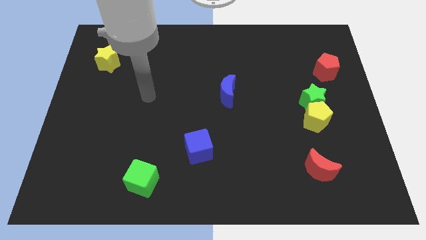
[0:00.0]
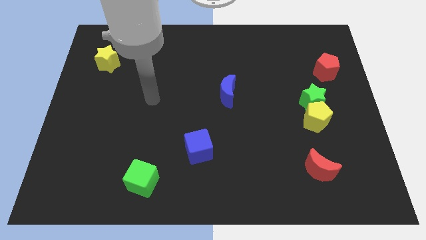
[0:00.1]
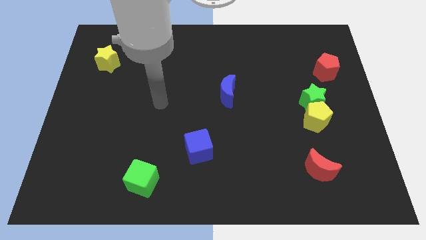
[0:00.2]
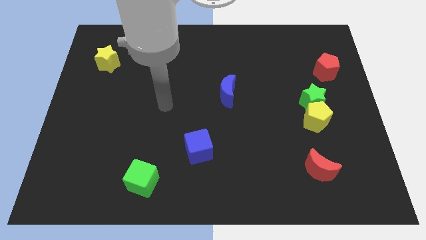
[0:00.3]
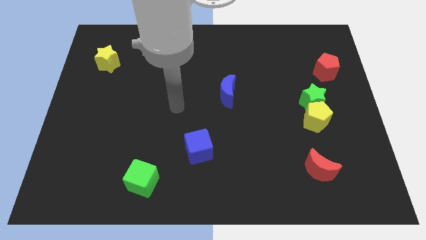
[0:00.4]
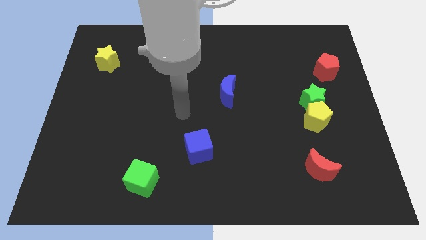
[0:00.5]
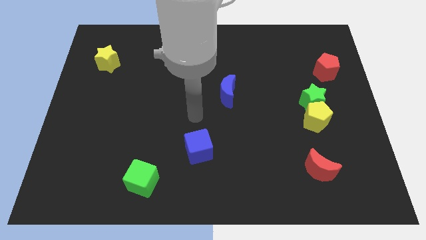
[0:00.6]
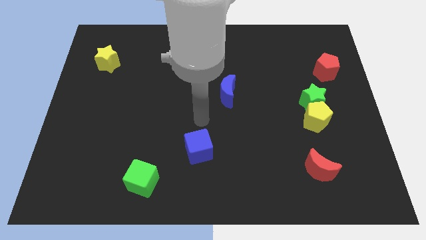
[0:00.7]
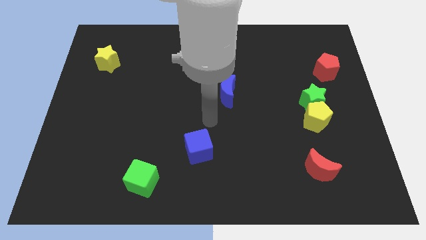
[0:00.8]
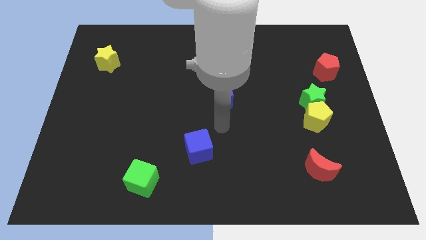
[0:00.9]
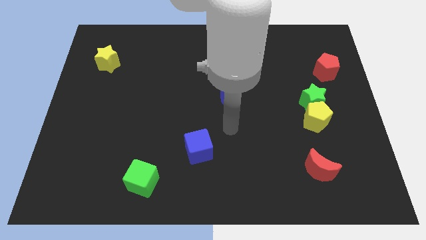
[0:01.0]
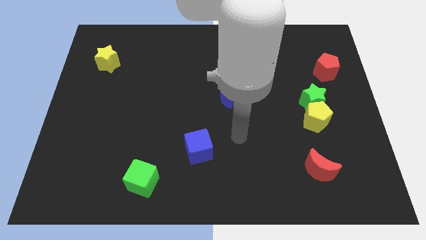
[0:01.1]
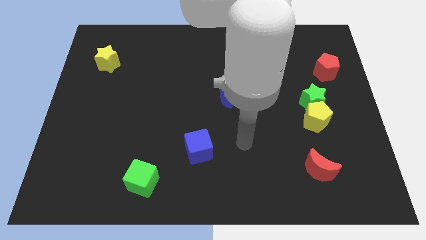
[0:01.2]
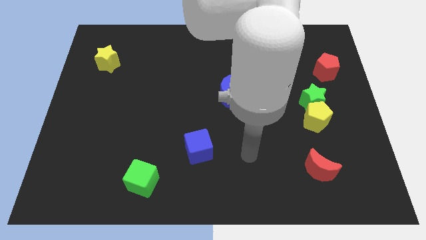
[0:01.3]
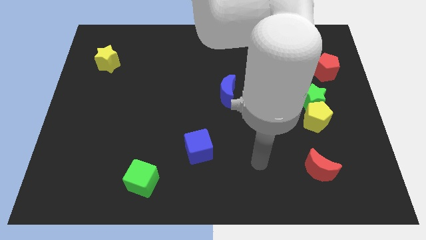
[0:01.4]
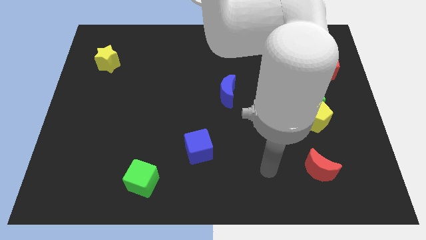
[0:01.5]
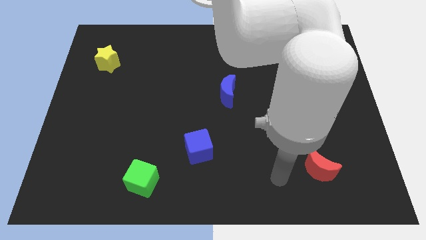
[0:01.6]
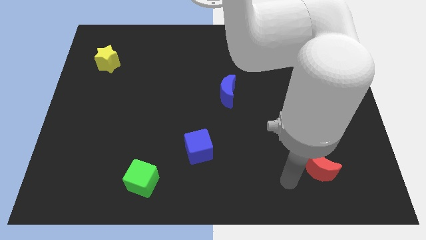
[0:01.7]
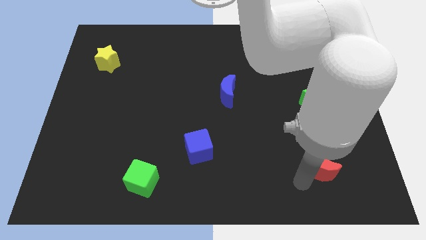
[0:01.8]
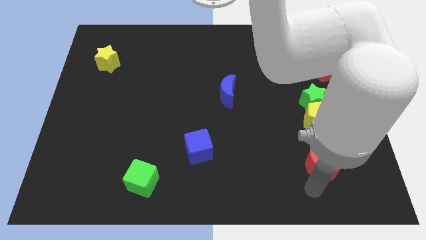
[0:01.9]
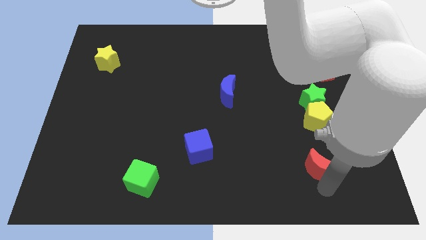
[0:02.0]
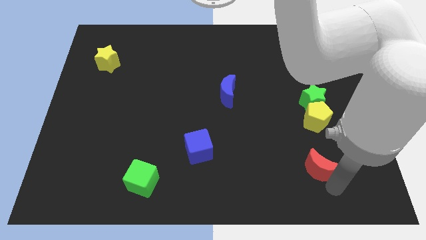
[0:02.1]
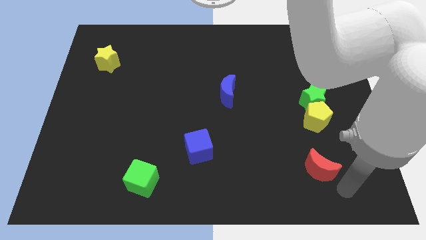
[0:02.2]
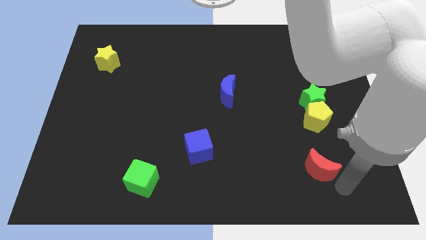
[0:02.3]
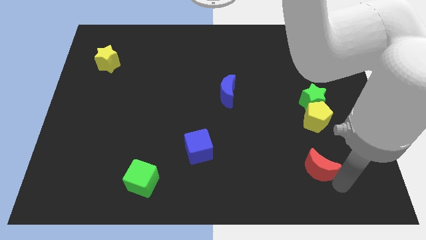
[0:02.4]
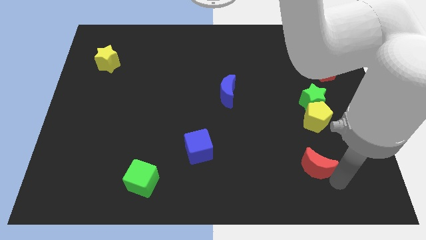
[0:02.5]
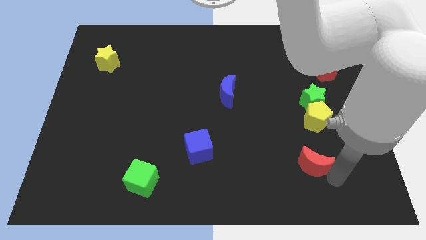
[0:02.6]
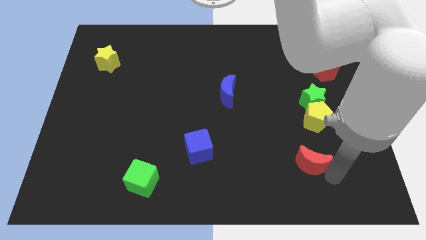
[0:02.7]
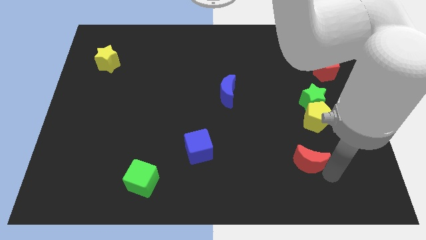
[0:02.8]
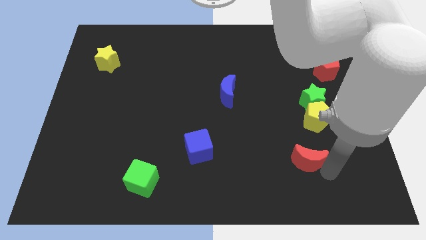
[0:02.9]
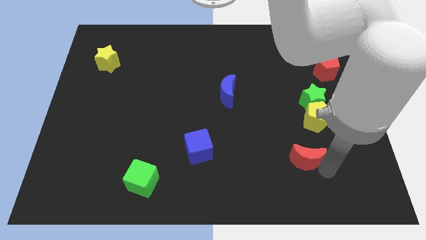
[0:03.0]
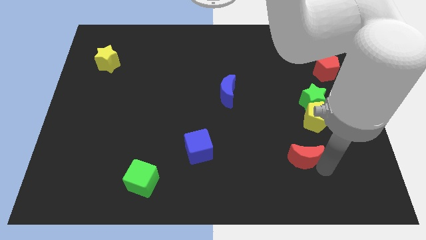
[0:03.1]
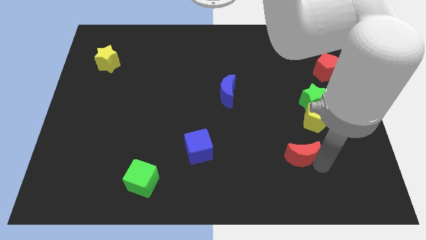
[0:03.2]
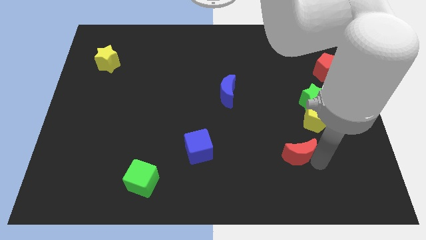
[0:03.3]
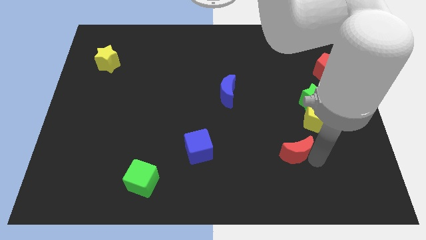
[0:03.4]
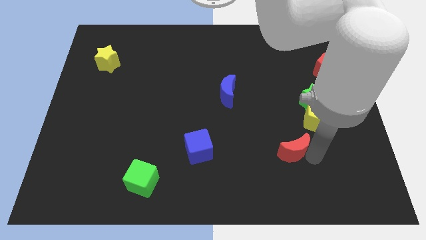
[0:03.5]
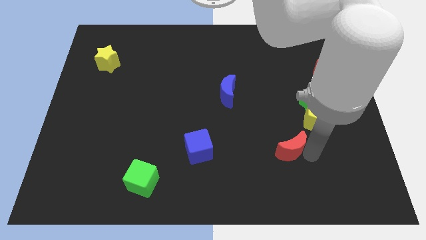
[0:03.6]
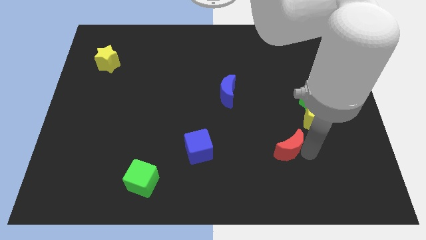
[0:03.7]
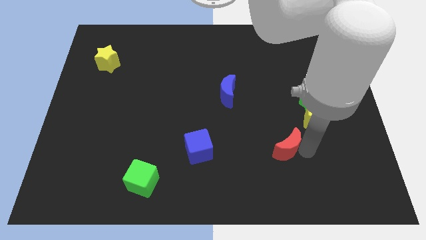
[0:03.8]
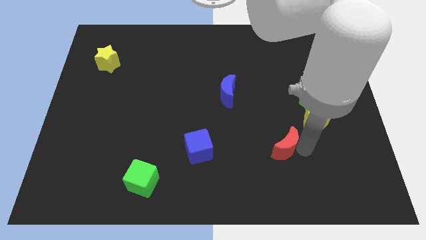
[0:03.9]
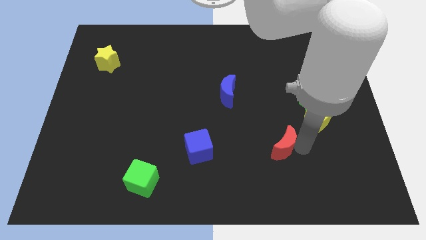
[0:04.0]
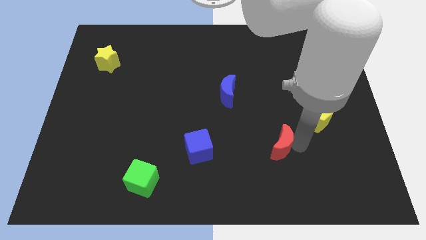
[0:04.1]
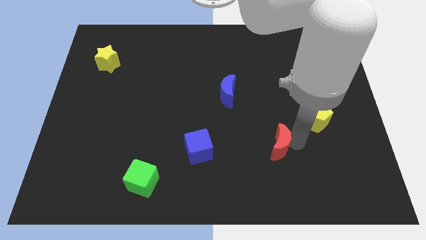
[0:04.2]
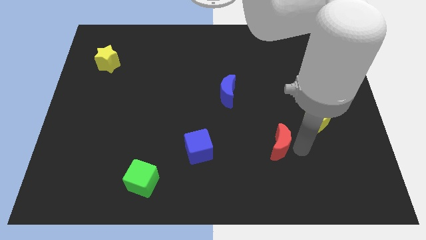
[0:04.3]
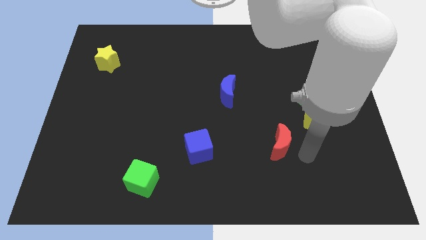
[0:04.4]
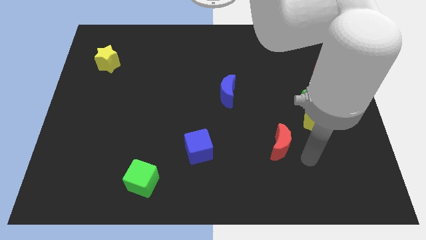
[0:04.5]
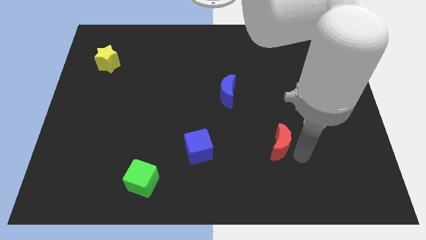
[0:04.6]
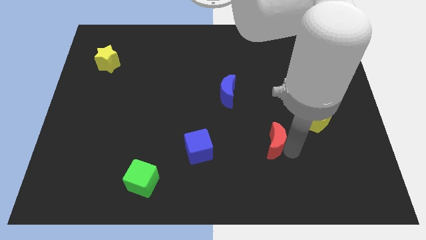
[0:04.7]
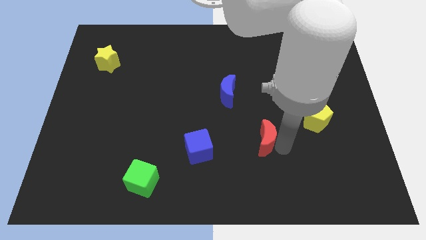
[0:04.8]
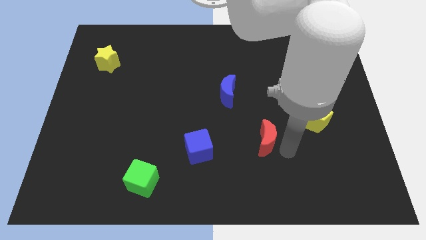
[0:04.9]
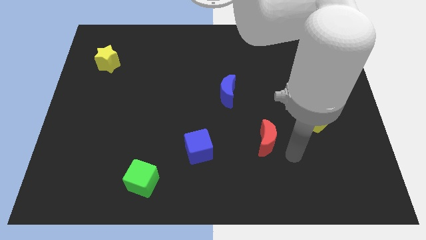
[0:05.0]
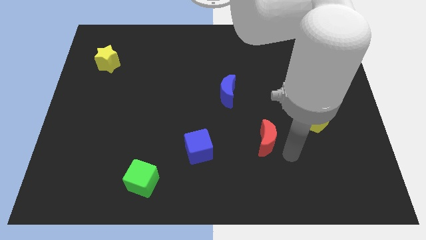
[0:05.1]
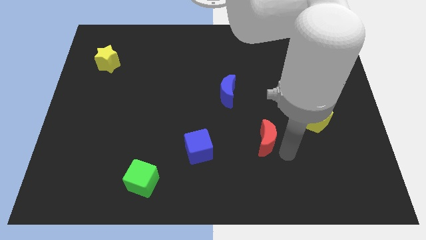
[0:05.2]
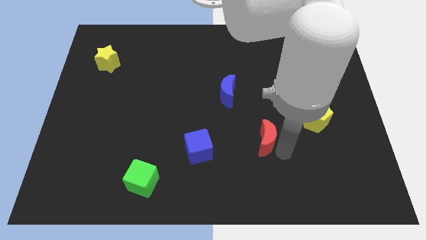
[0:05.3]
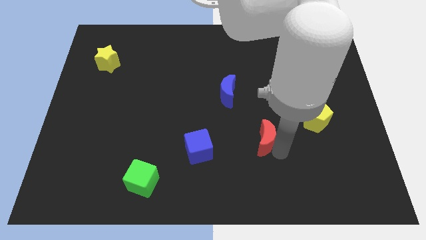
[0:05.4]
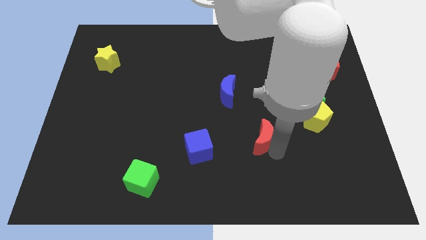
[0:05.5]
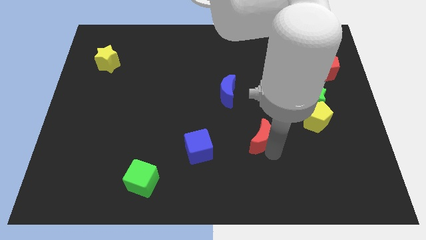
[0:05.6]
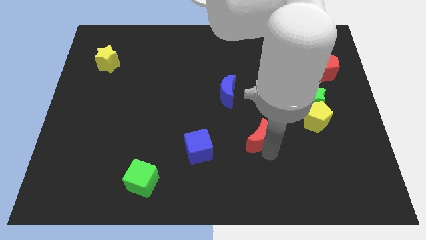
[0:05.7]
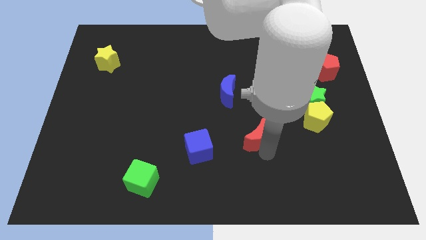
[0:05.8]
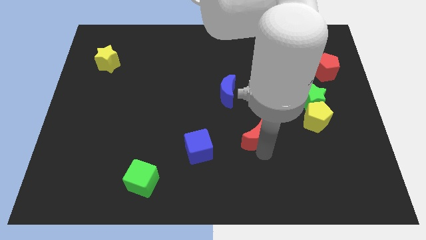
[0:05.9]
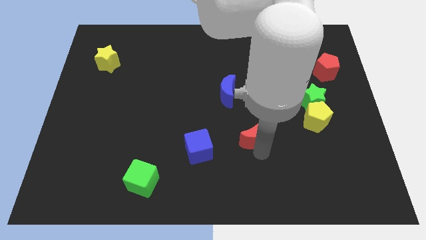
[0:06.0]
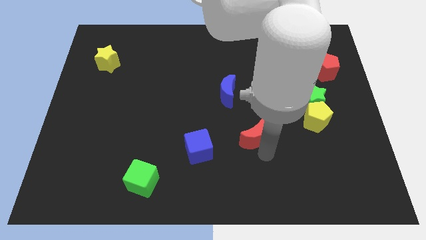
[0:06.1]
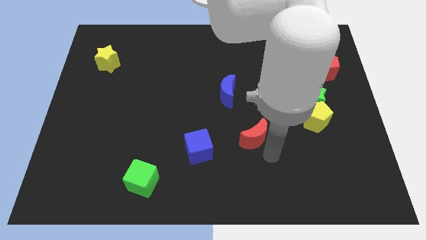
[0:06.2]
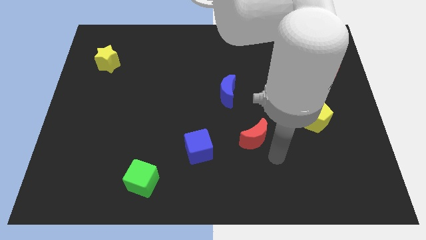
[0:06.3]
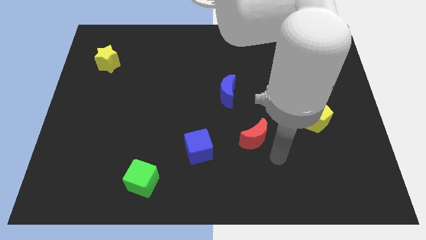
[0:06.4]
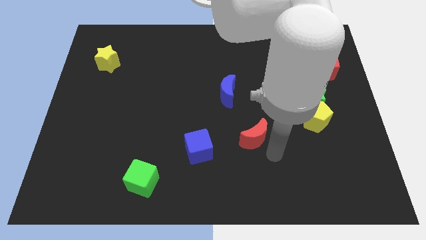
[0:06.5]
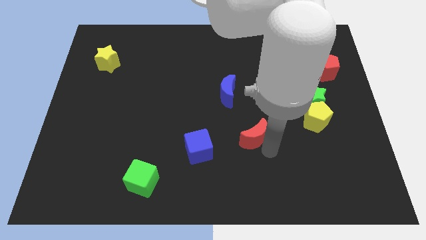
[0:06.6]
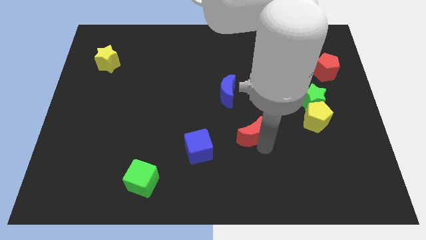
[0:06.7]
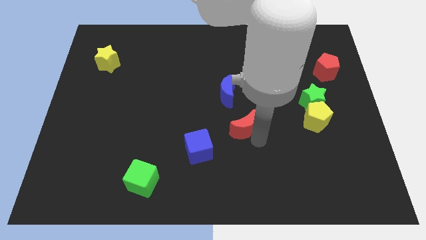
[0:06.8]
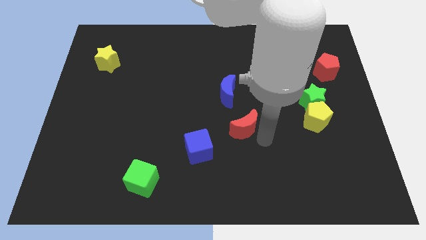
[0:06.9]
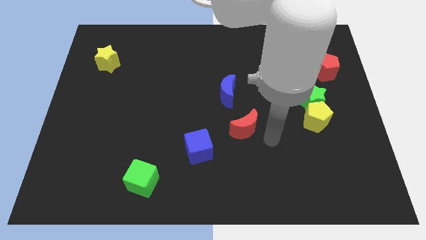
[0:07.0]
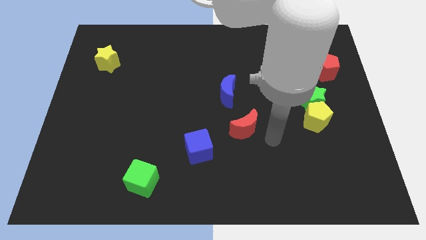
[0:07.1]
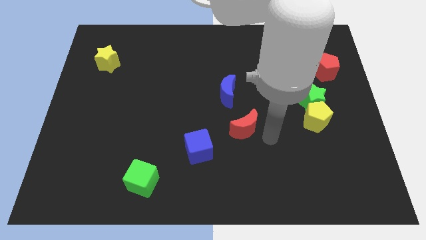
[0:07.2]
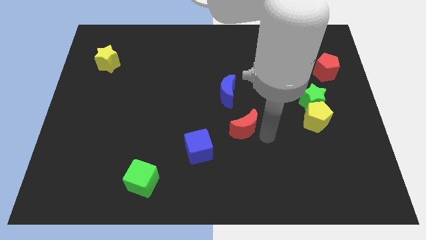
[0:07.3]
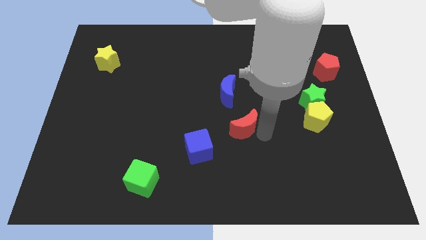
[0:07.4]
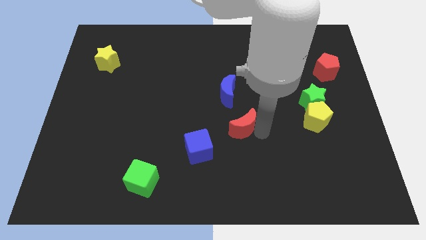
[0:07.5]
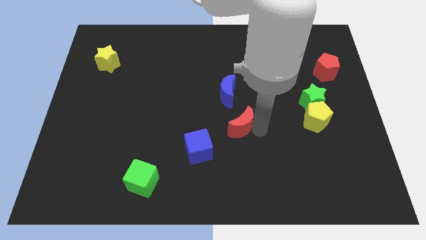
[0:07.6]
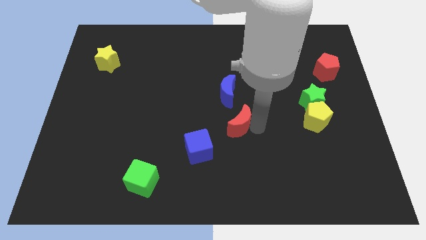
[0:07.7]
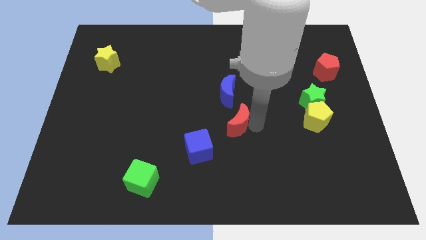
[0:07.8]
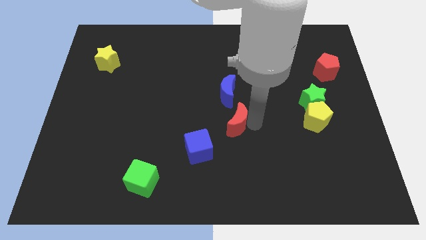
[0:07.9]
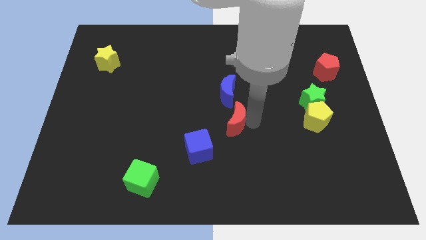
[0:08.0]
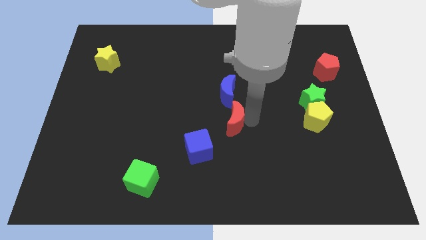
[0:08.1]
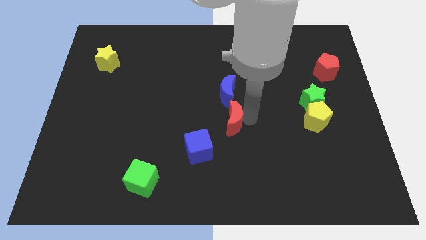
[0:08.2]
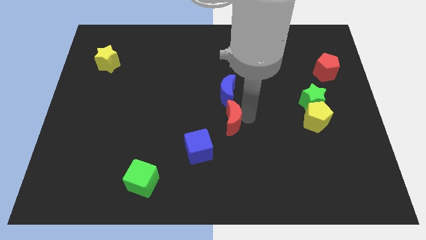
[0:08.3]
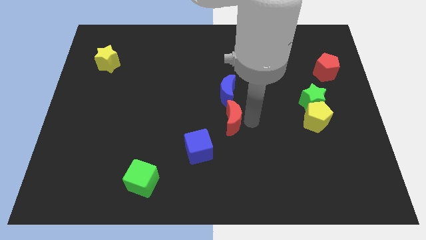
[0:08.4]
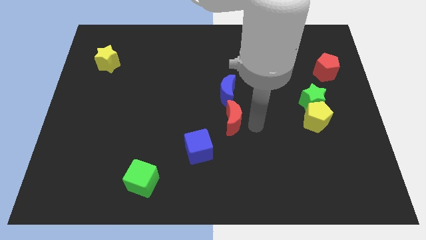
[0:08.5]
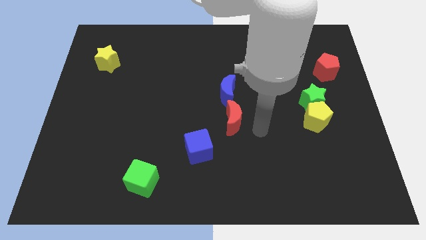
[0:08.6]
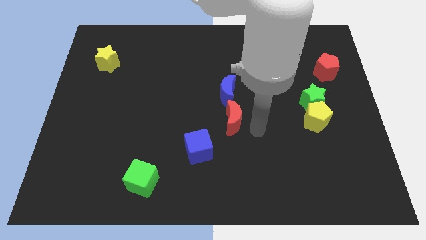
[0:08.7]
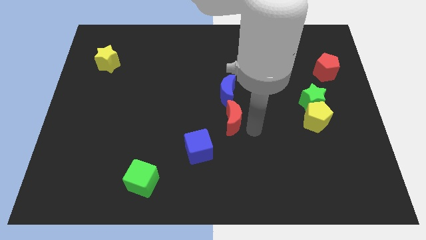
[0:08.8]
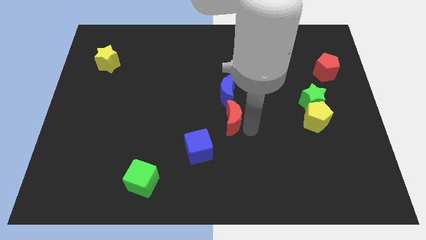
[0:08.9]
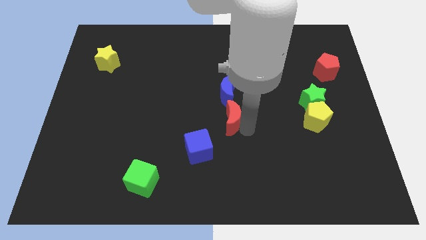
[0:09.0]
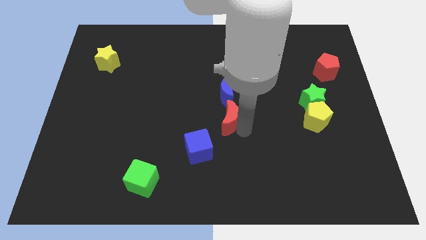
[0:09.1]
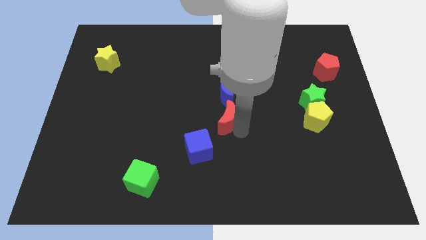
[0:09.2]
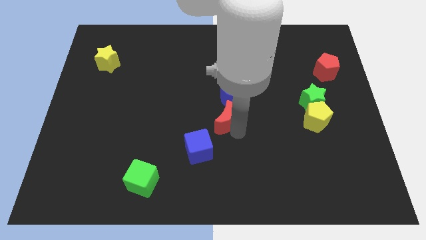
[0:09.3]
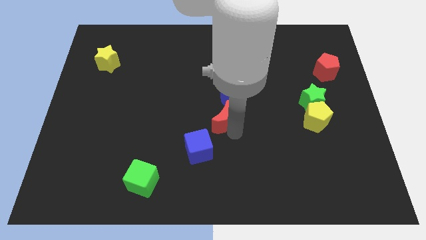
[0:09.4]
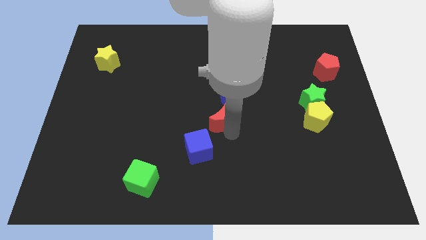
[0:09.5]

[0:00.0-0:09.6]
put the red moon to the bottom left of the blue moon
